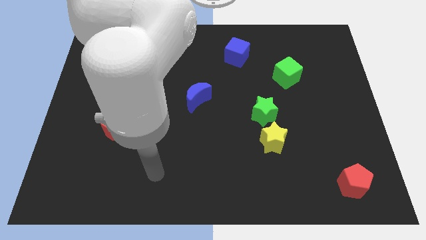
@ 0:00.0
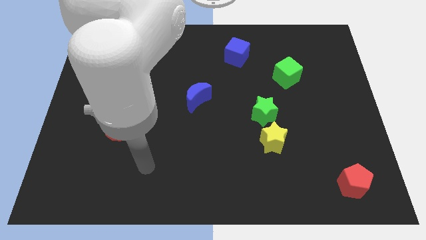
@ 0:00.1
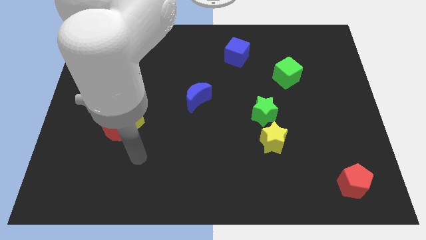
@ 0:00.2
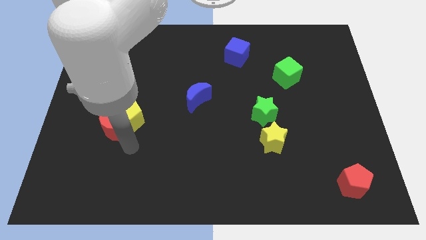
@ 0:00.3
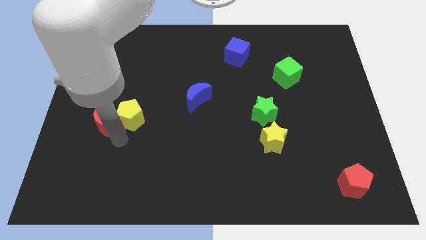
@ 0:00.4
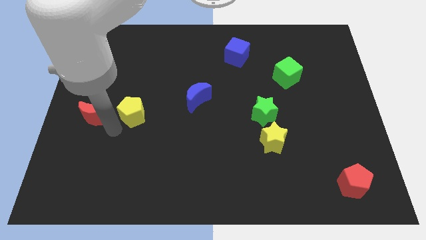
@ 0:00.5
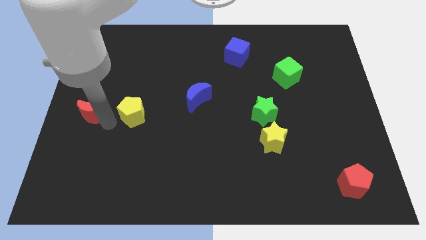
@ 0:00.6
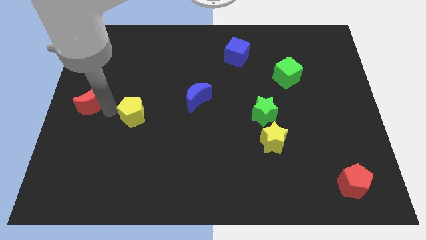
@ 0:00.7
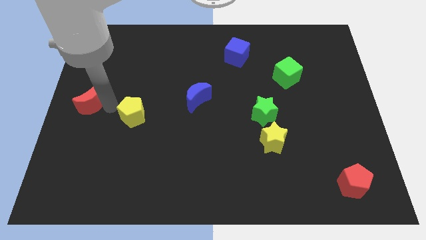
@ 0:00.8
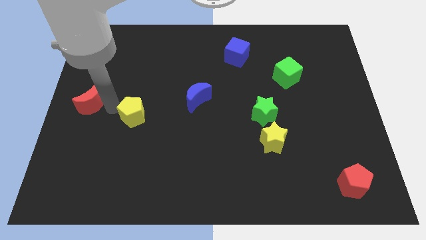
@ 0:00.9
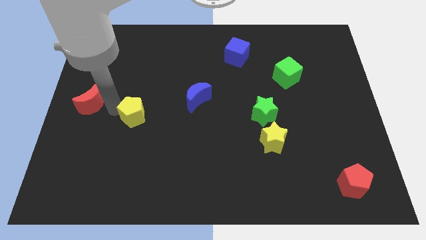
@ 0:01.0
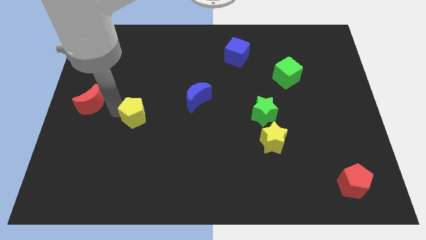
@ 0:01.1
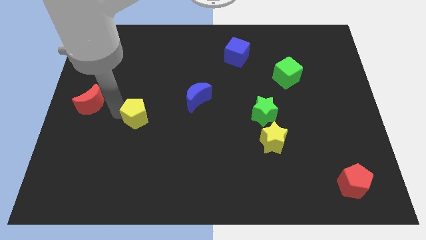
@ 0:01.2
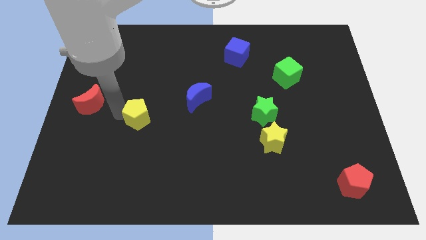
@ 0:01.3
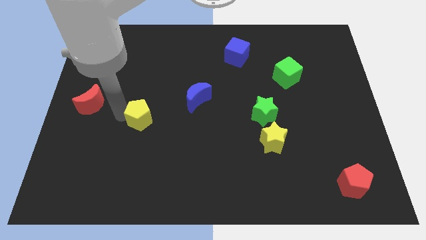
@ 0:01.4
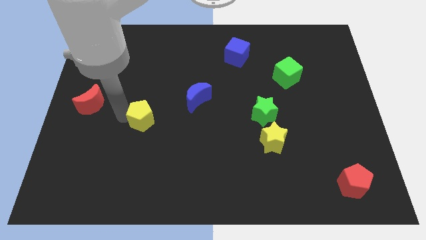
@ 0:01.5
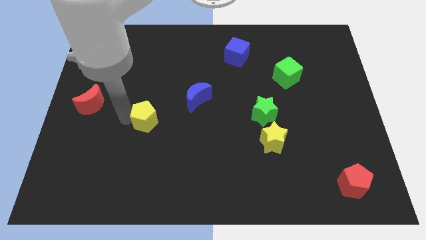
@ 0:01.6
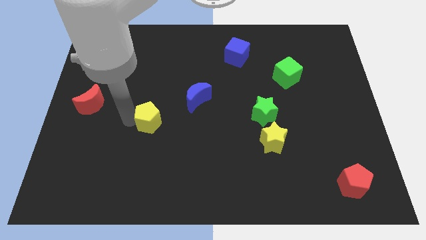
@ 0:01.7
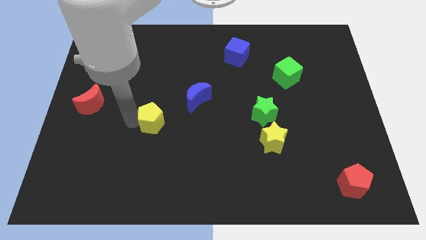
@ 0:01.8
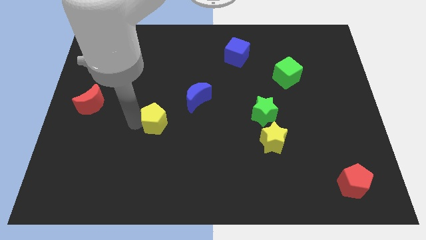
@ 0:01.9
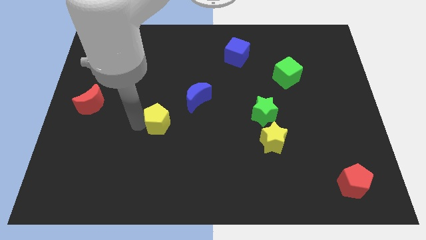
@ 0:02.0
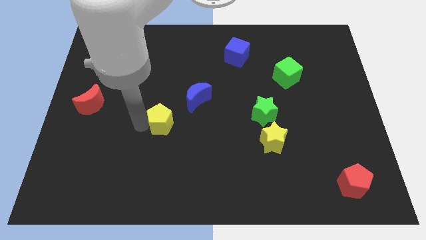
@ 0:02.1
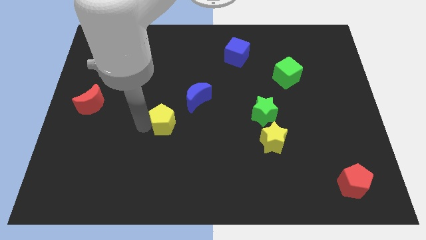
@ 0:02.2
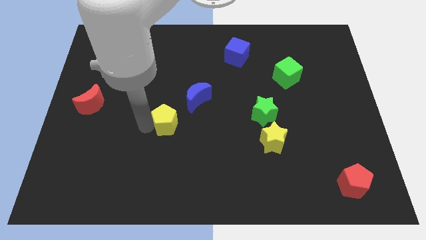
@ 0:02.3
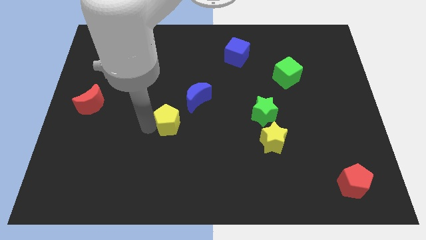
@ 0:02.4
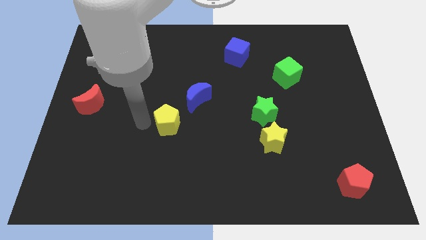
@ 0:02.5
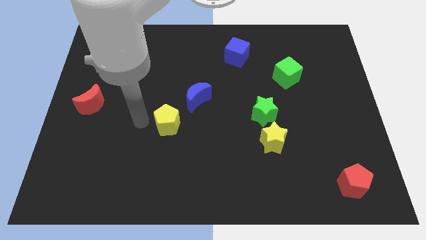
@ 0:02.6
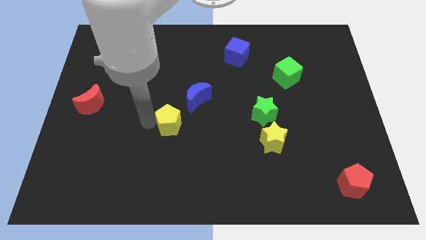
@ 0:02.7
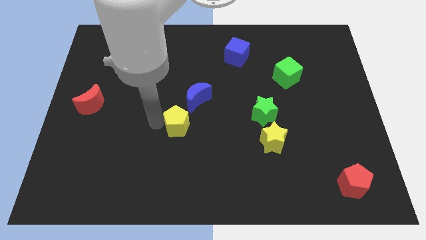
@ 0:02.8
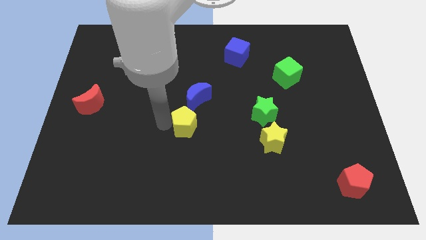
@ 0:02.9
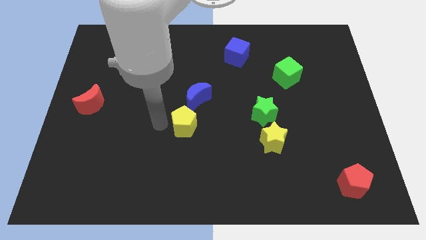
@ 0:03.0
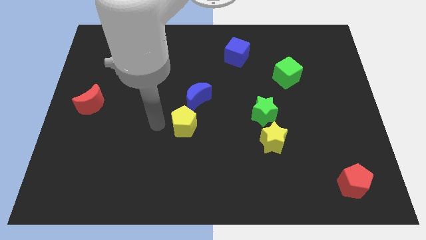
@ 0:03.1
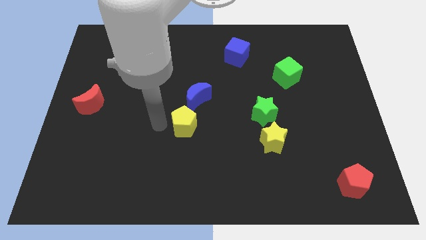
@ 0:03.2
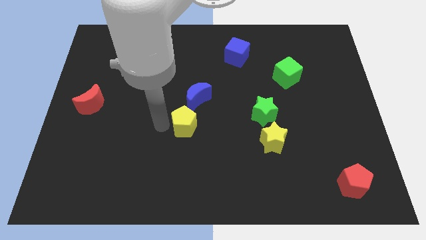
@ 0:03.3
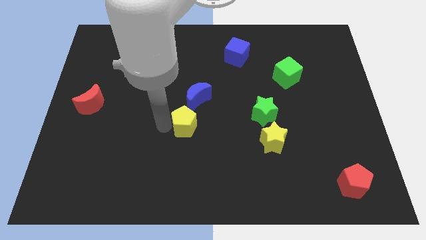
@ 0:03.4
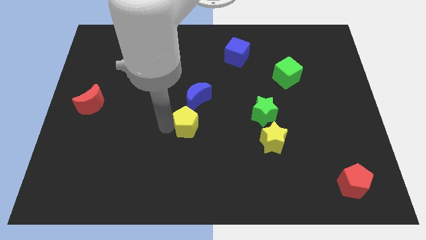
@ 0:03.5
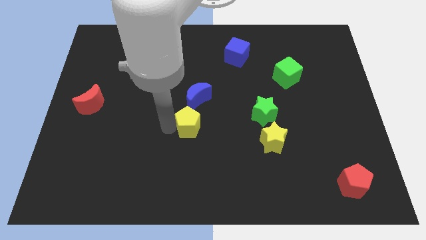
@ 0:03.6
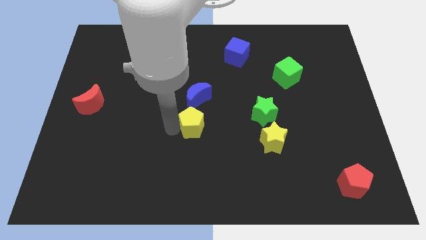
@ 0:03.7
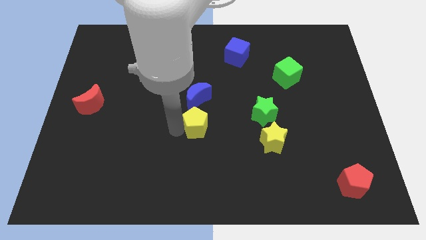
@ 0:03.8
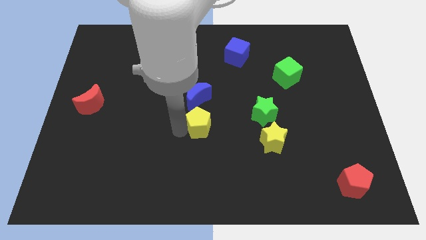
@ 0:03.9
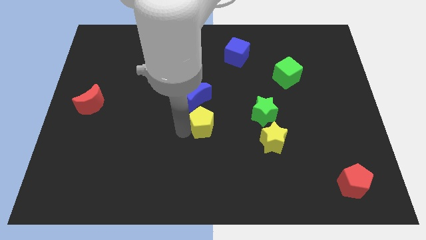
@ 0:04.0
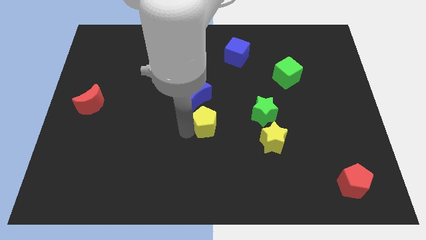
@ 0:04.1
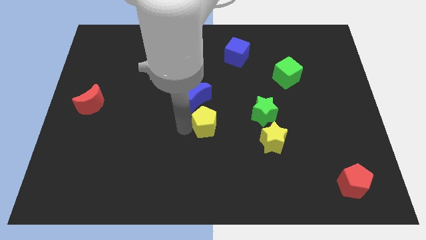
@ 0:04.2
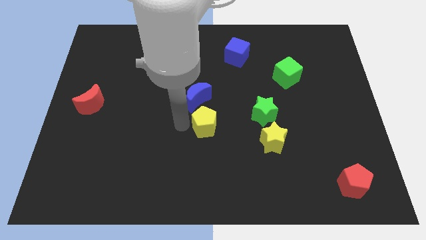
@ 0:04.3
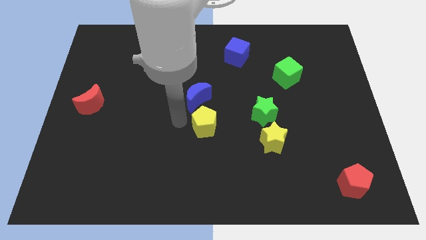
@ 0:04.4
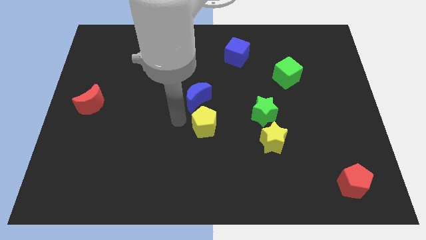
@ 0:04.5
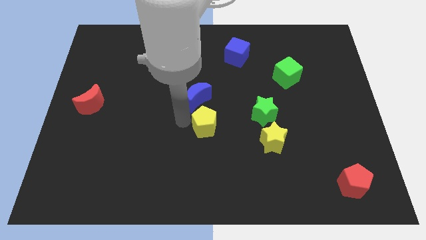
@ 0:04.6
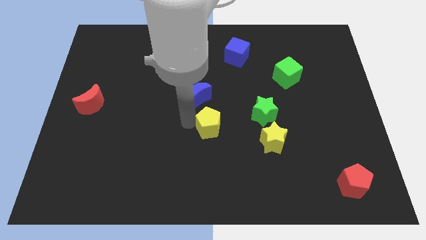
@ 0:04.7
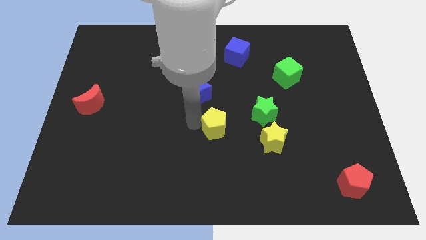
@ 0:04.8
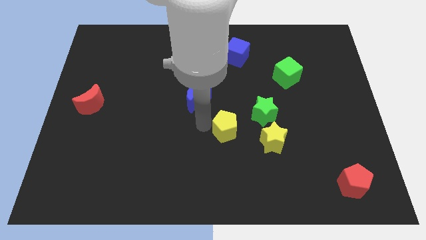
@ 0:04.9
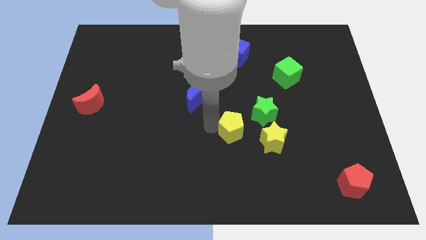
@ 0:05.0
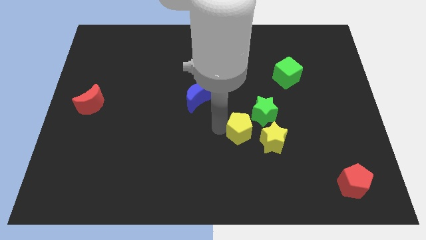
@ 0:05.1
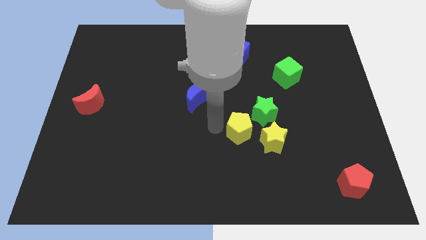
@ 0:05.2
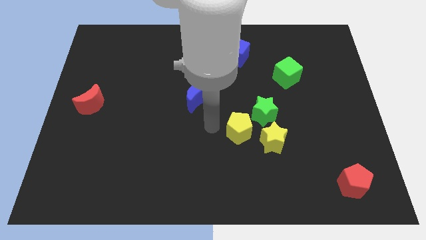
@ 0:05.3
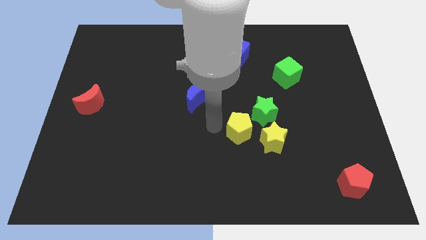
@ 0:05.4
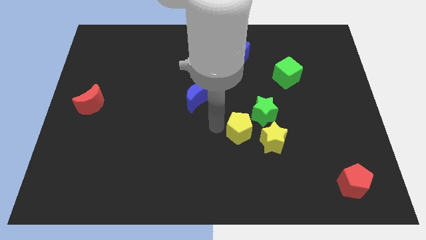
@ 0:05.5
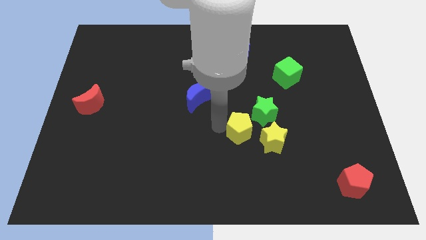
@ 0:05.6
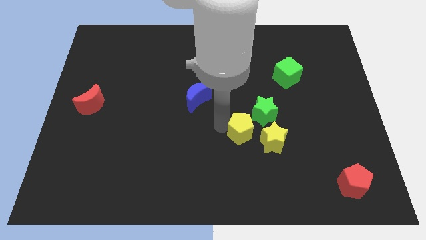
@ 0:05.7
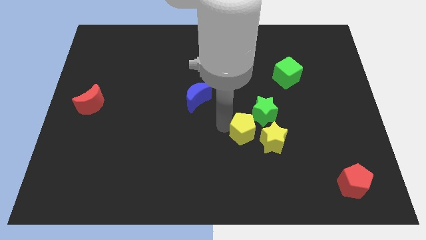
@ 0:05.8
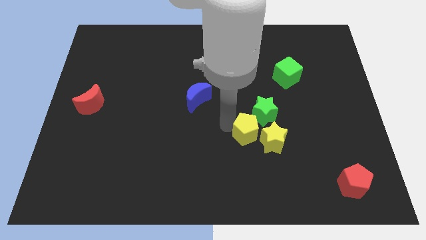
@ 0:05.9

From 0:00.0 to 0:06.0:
move the yellow pentagon to the yellow star

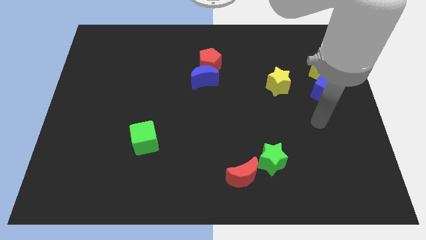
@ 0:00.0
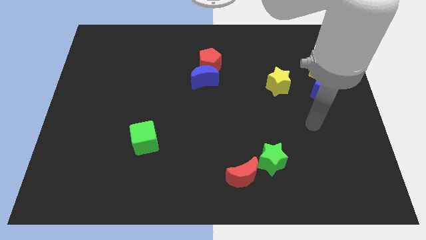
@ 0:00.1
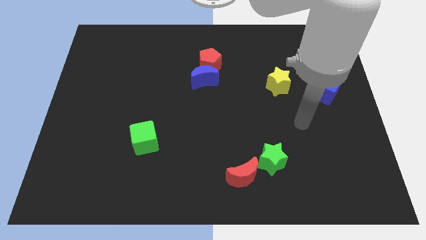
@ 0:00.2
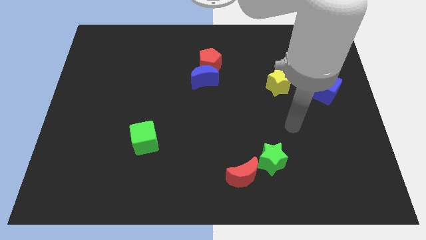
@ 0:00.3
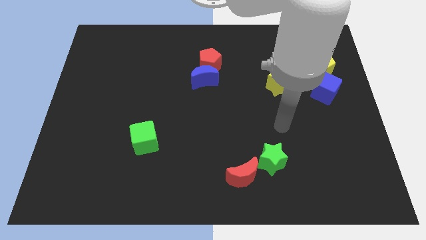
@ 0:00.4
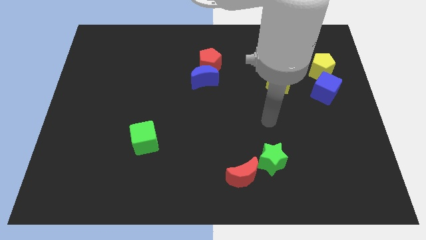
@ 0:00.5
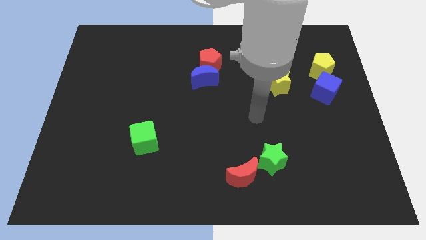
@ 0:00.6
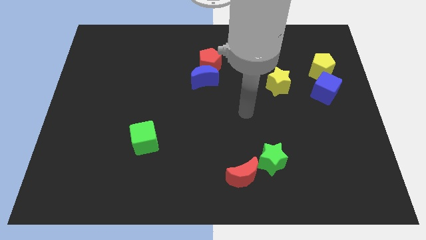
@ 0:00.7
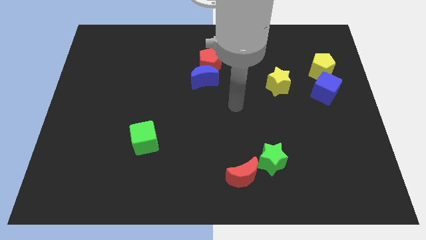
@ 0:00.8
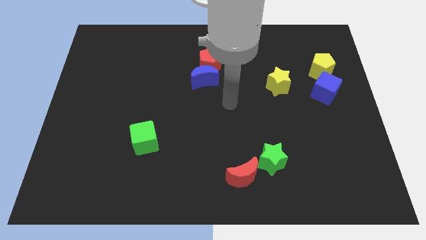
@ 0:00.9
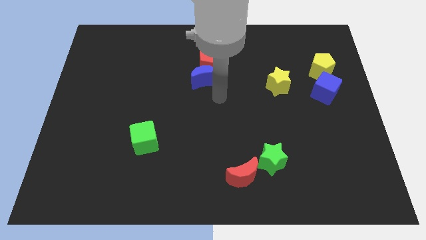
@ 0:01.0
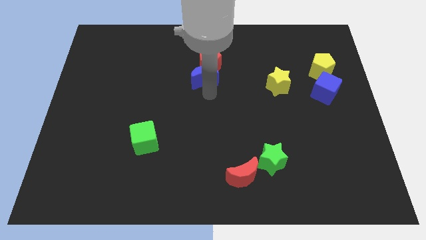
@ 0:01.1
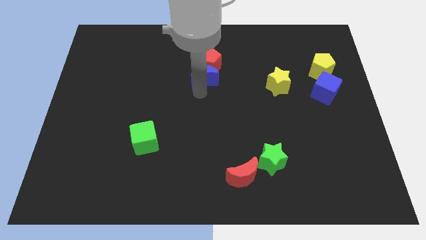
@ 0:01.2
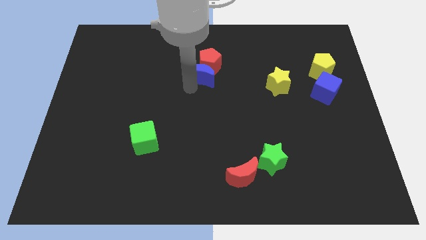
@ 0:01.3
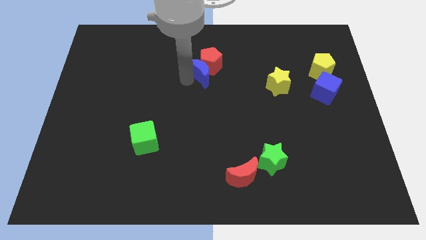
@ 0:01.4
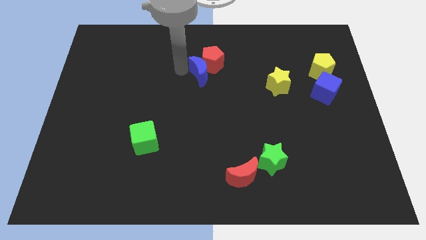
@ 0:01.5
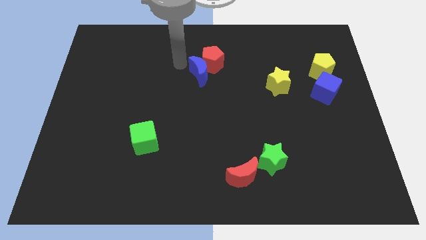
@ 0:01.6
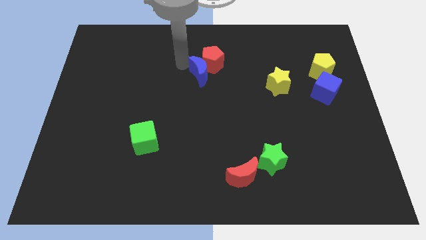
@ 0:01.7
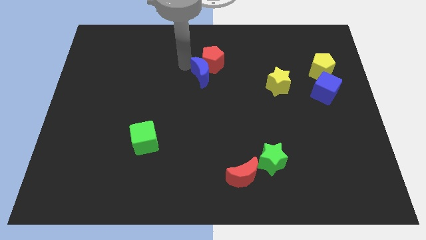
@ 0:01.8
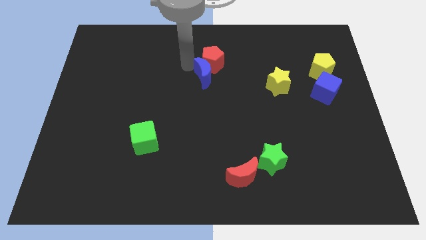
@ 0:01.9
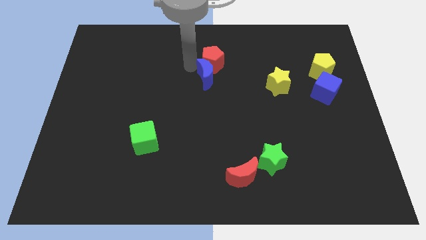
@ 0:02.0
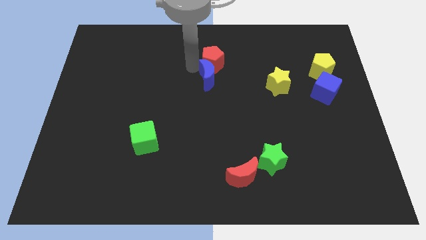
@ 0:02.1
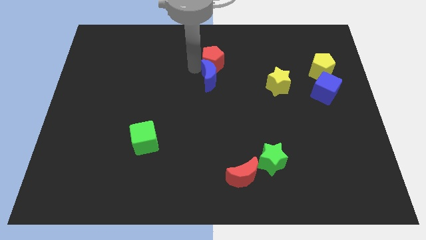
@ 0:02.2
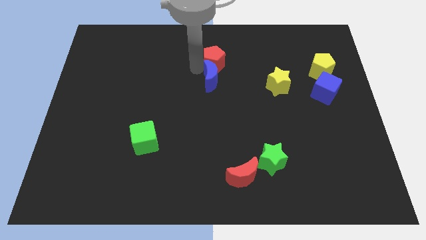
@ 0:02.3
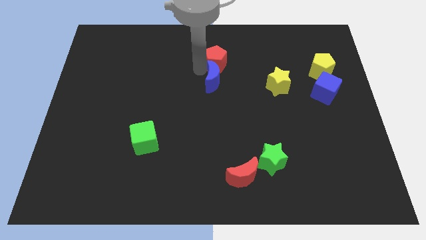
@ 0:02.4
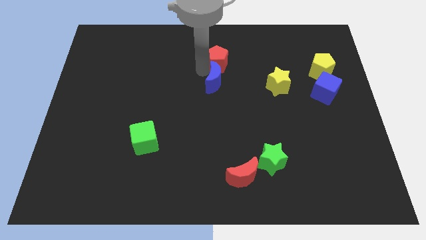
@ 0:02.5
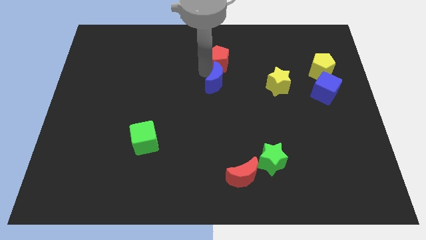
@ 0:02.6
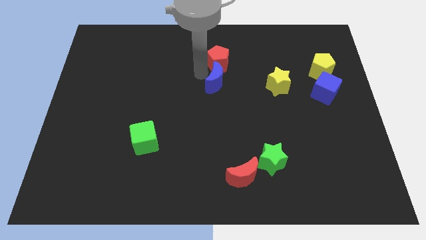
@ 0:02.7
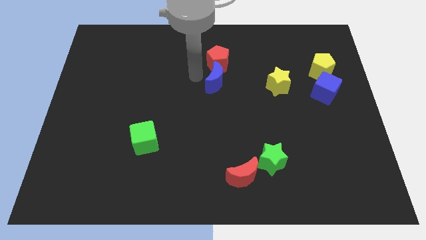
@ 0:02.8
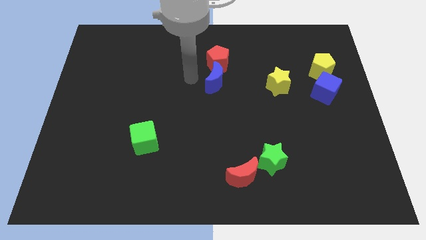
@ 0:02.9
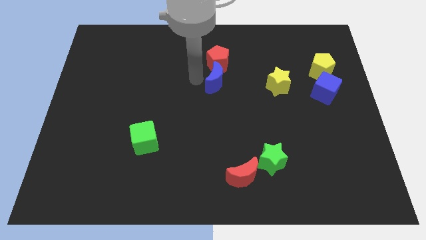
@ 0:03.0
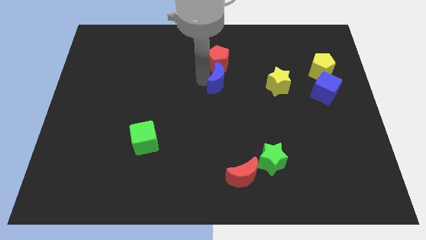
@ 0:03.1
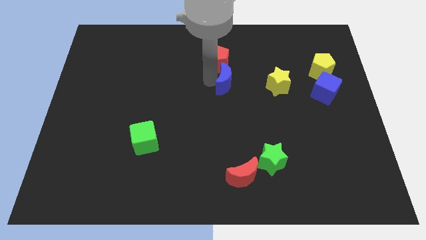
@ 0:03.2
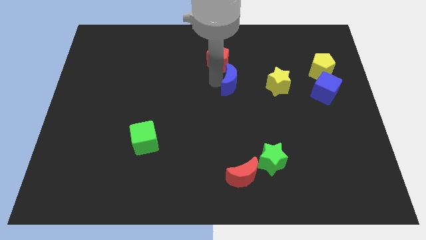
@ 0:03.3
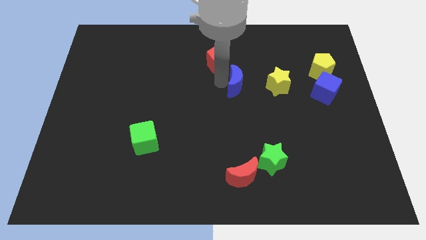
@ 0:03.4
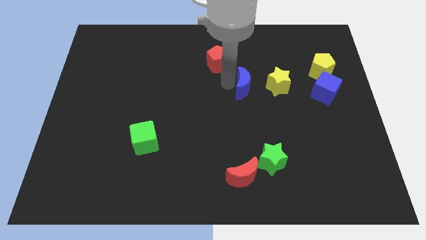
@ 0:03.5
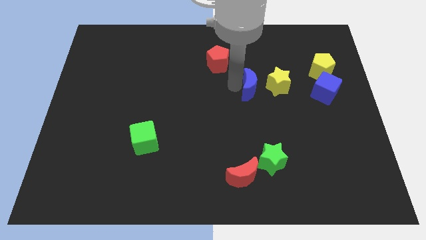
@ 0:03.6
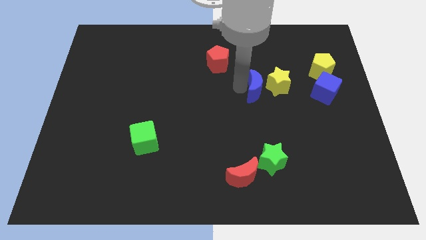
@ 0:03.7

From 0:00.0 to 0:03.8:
push the blue moon to the yellow star
